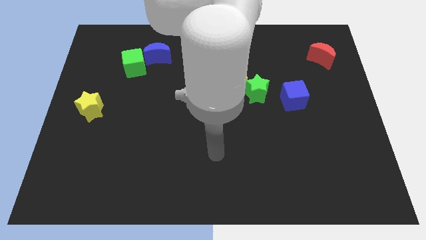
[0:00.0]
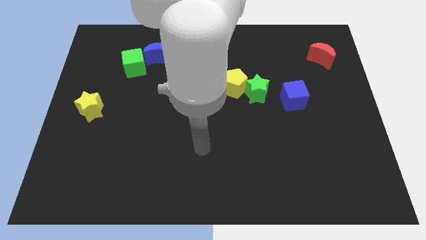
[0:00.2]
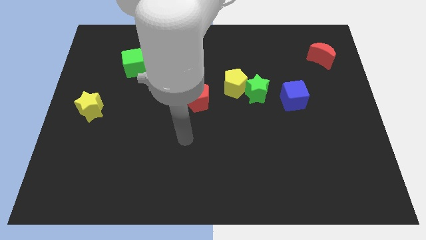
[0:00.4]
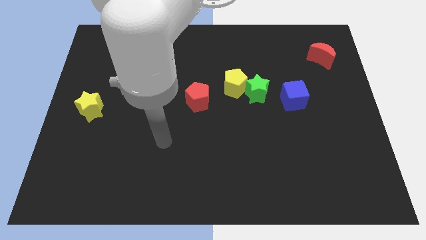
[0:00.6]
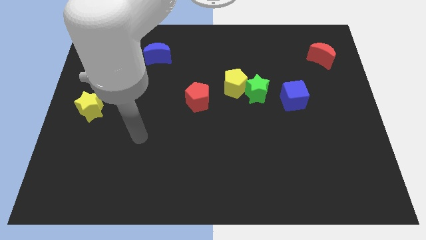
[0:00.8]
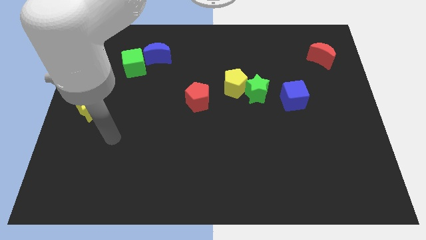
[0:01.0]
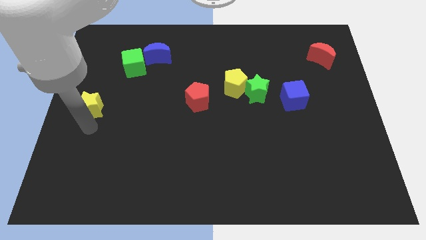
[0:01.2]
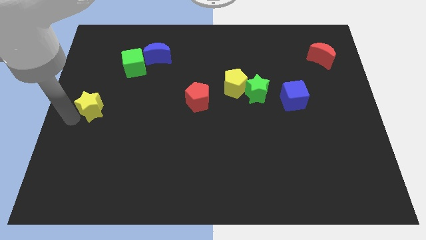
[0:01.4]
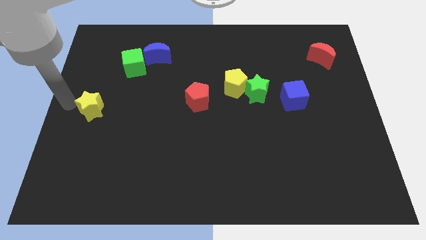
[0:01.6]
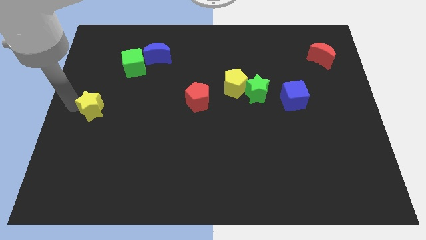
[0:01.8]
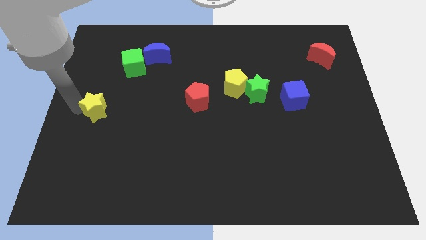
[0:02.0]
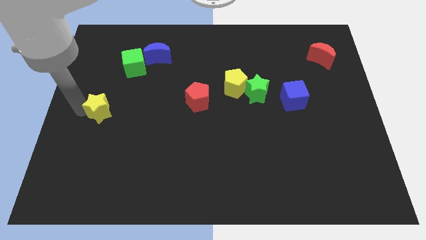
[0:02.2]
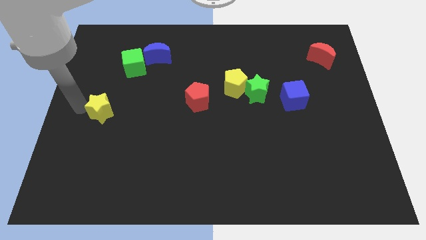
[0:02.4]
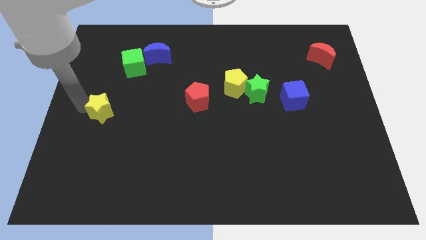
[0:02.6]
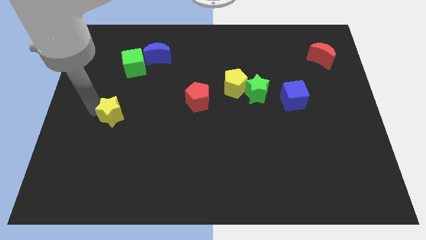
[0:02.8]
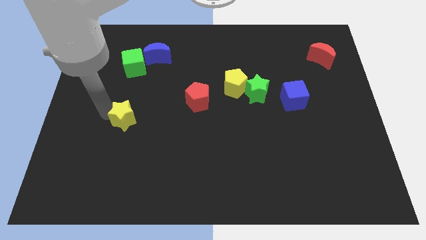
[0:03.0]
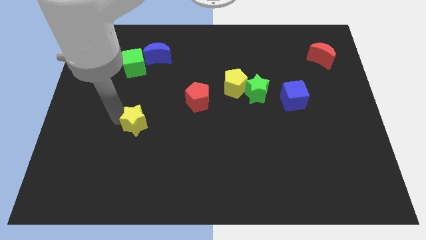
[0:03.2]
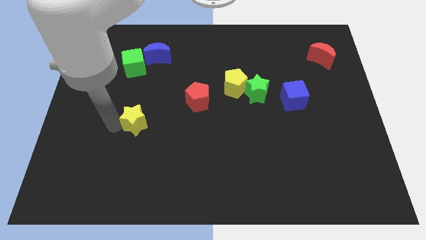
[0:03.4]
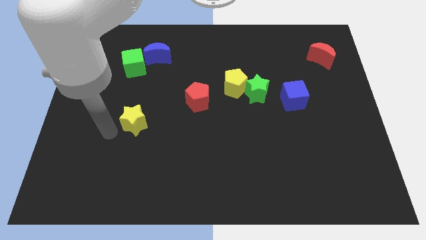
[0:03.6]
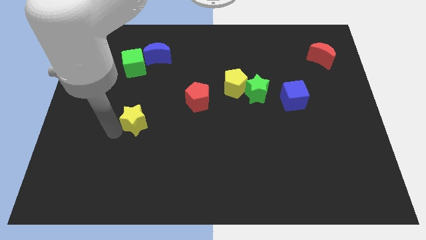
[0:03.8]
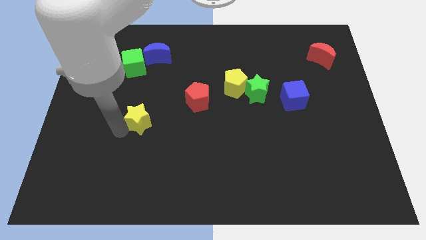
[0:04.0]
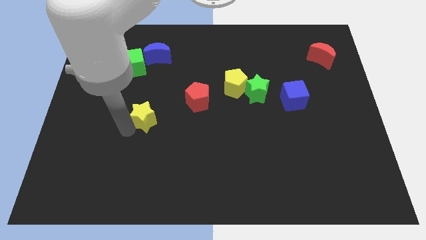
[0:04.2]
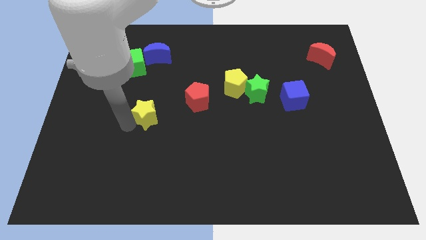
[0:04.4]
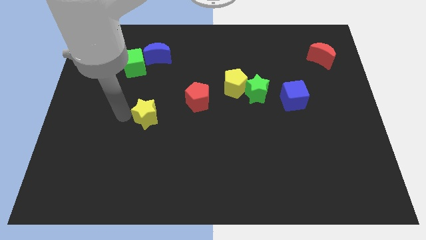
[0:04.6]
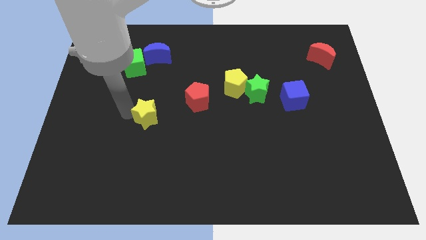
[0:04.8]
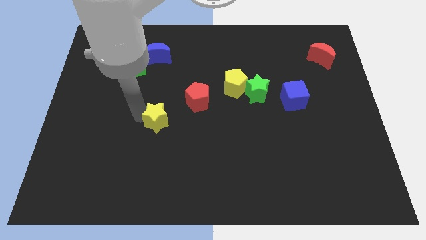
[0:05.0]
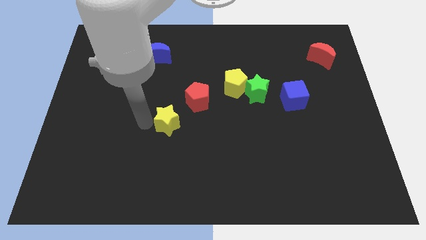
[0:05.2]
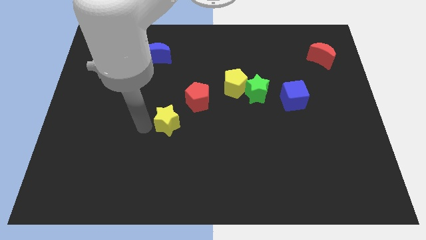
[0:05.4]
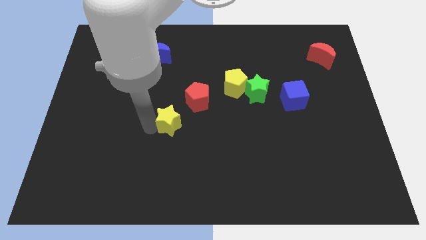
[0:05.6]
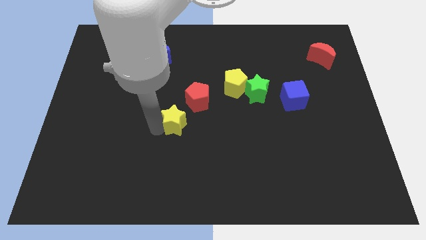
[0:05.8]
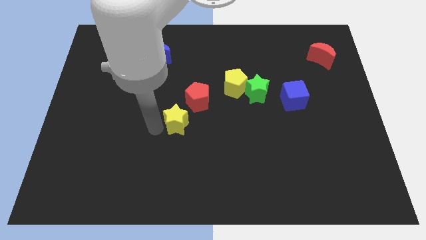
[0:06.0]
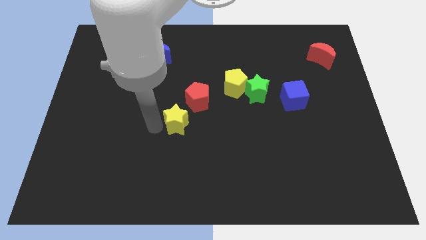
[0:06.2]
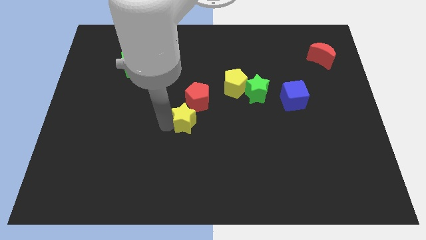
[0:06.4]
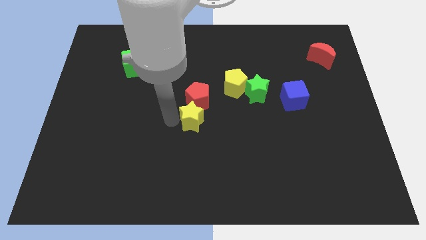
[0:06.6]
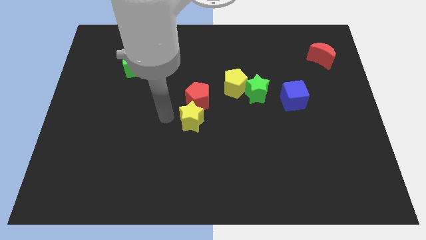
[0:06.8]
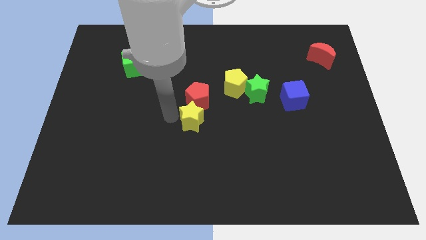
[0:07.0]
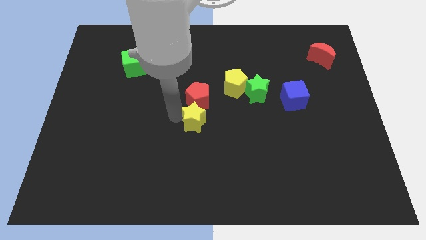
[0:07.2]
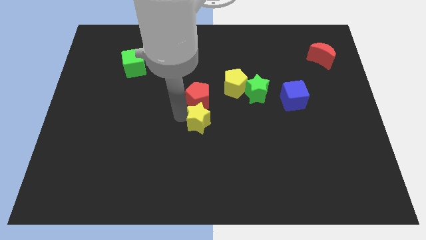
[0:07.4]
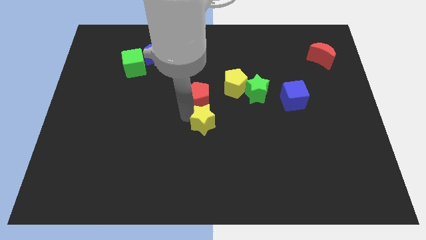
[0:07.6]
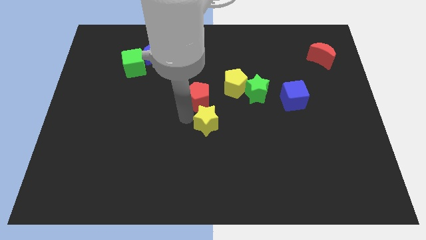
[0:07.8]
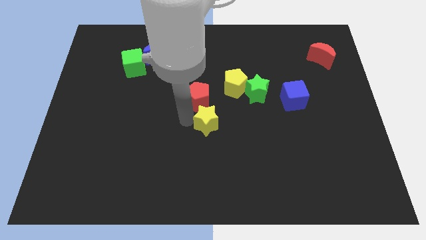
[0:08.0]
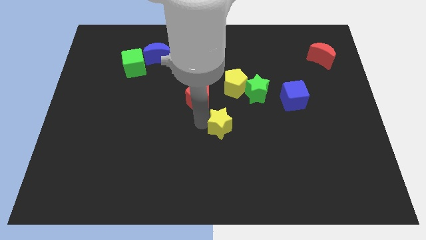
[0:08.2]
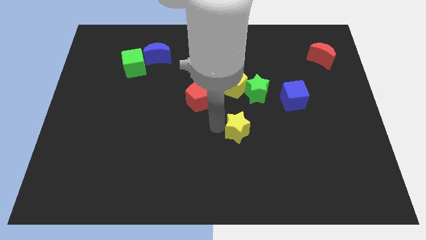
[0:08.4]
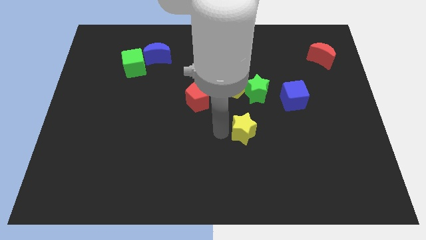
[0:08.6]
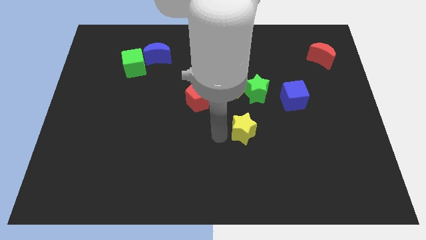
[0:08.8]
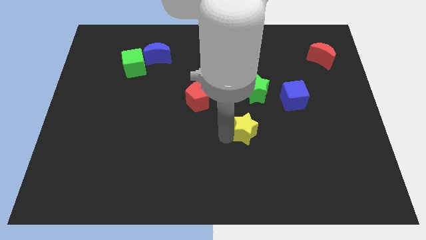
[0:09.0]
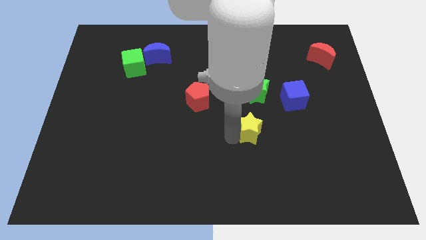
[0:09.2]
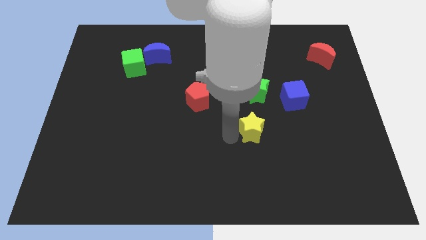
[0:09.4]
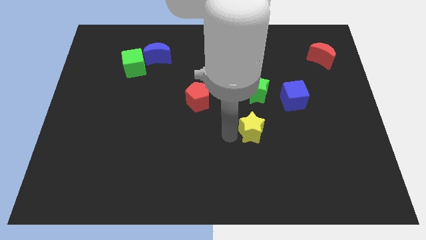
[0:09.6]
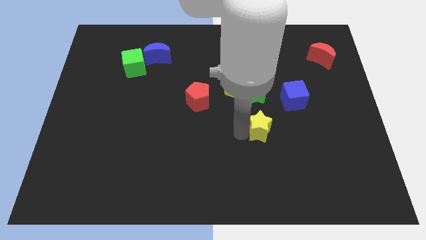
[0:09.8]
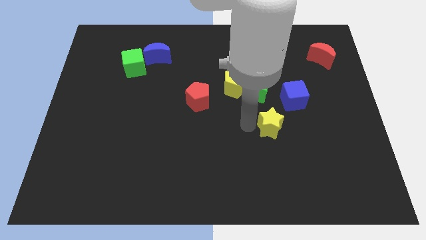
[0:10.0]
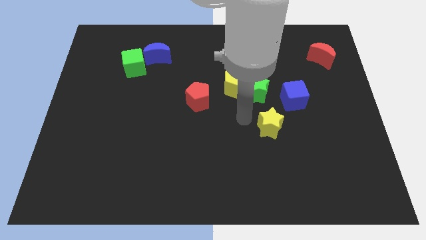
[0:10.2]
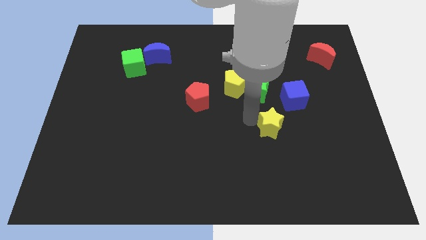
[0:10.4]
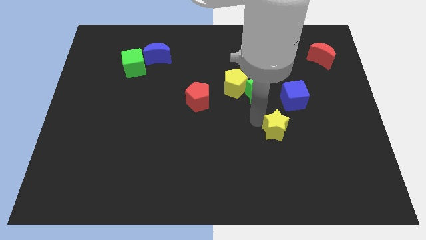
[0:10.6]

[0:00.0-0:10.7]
put the yellow star to the bottom of the blue cube

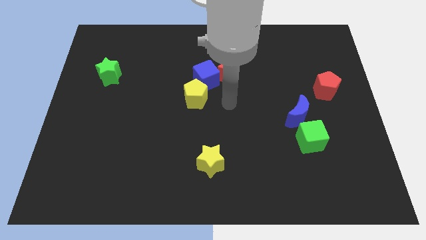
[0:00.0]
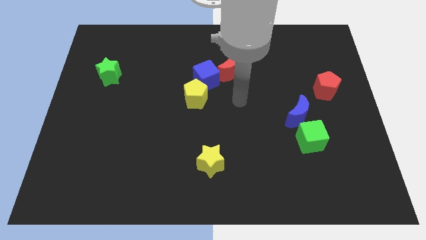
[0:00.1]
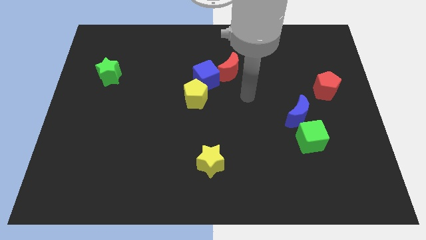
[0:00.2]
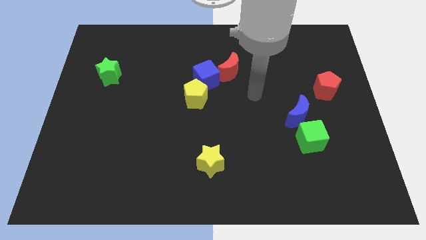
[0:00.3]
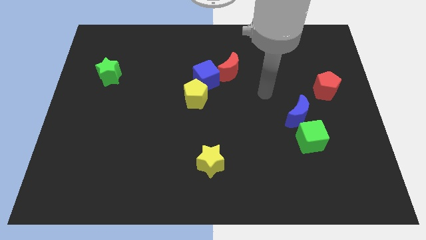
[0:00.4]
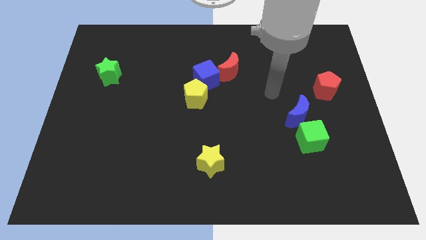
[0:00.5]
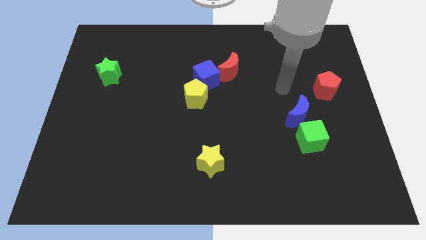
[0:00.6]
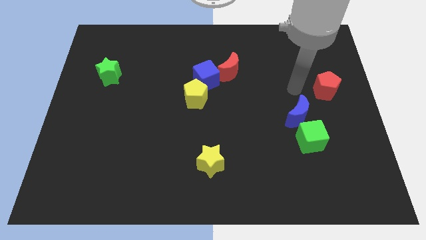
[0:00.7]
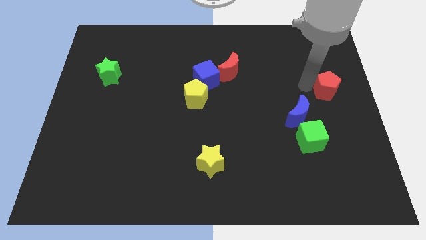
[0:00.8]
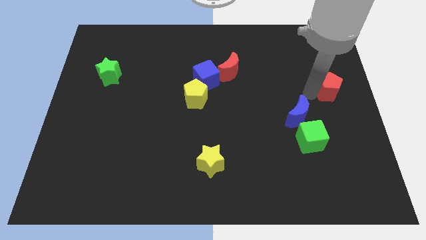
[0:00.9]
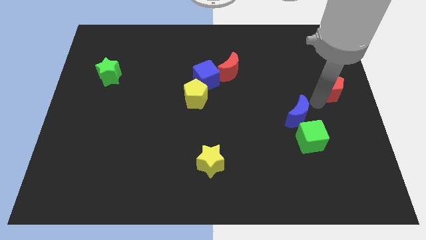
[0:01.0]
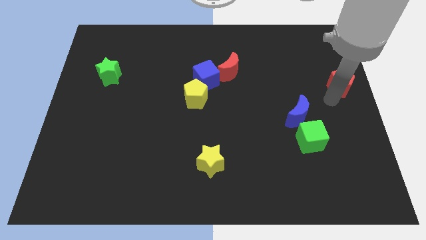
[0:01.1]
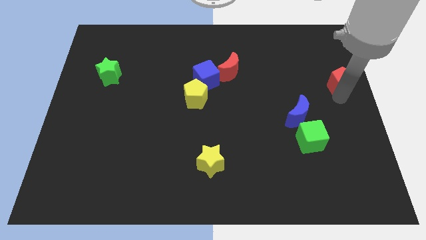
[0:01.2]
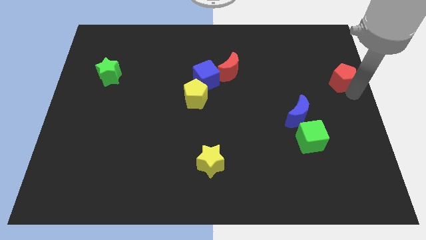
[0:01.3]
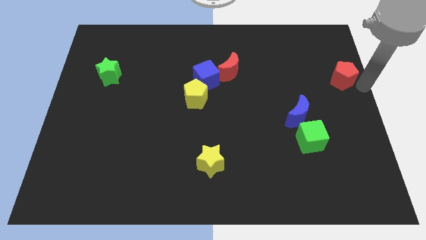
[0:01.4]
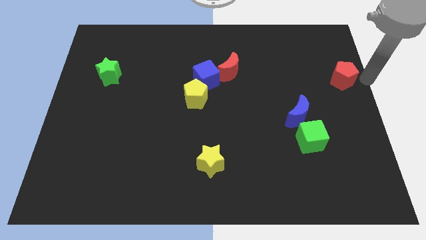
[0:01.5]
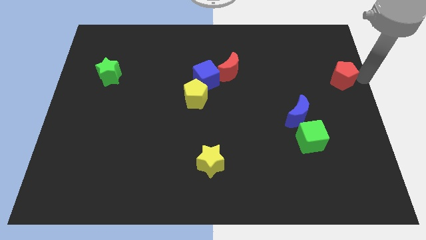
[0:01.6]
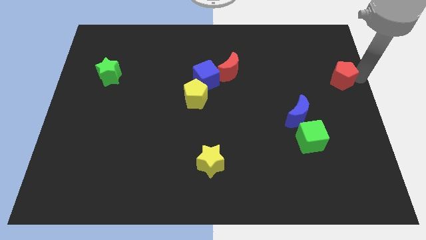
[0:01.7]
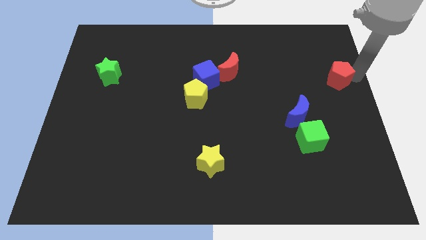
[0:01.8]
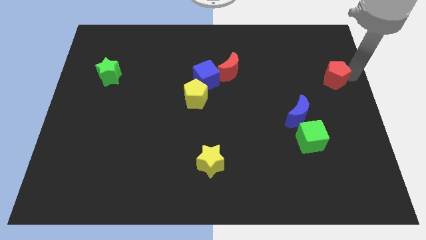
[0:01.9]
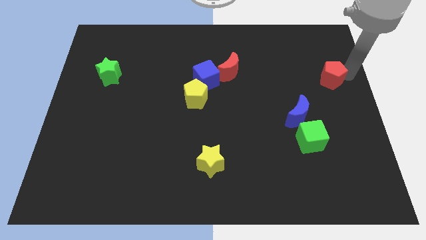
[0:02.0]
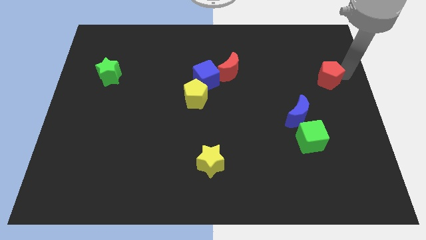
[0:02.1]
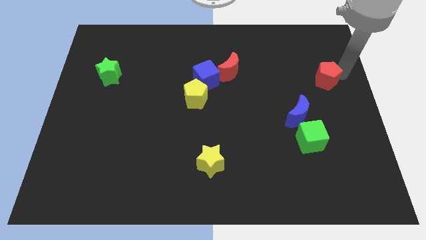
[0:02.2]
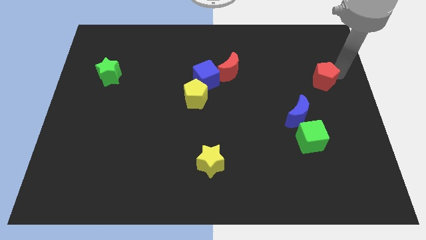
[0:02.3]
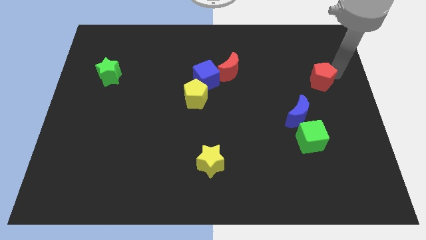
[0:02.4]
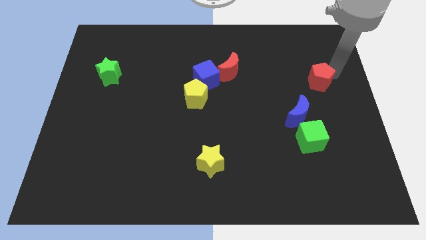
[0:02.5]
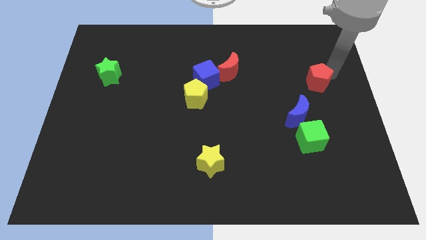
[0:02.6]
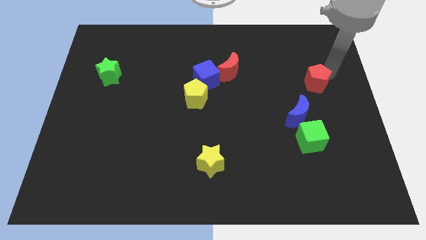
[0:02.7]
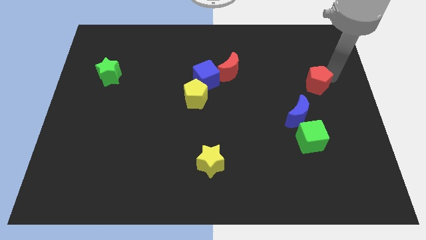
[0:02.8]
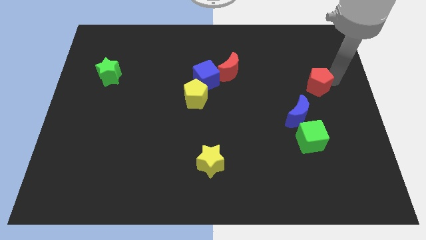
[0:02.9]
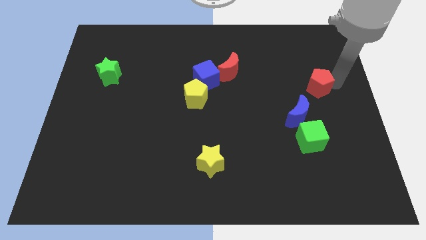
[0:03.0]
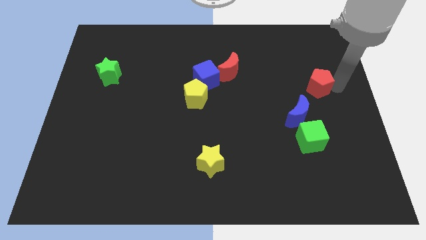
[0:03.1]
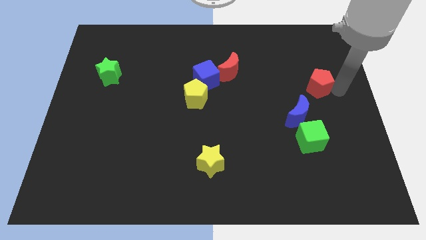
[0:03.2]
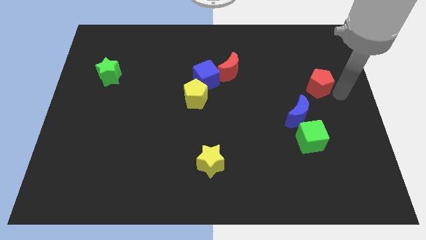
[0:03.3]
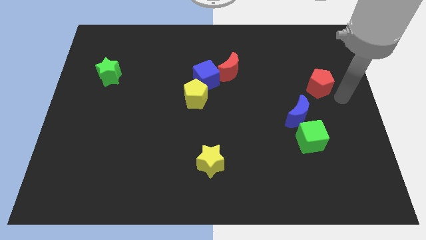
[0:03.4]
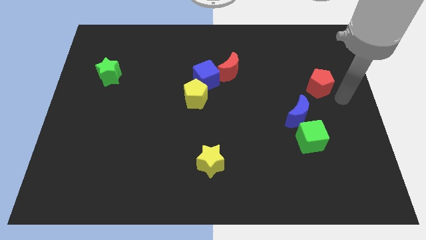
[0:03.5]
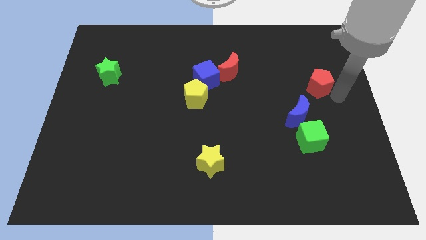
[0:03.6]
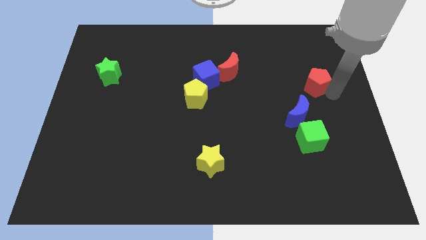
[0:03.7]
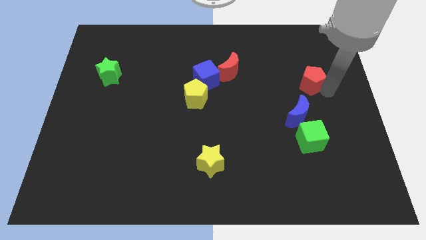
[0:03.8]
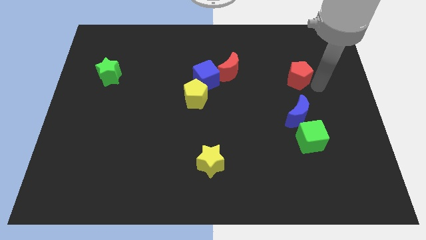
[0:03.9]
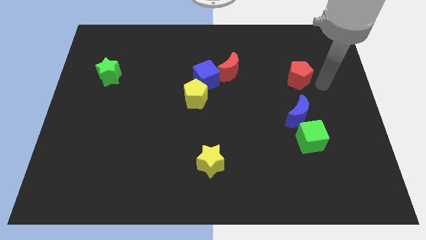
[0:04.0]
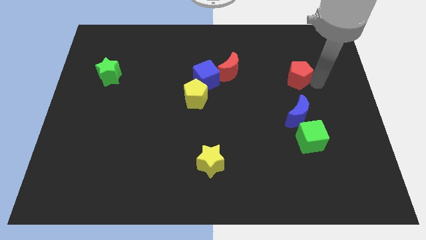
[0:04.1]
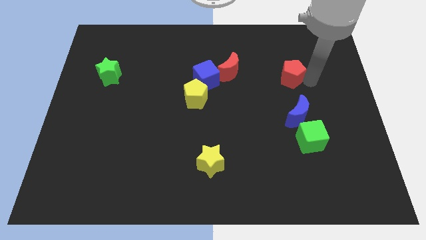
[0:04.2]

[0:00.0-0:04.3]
slide the red pentagon to the right side of the red moon
